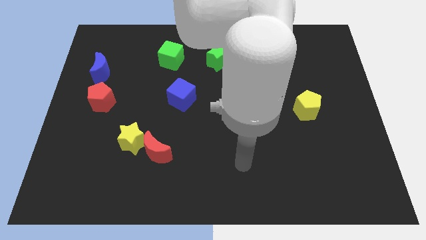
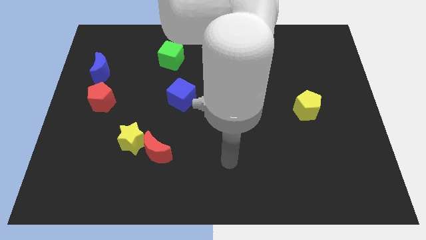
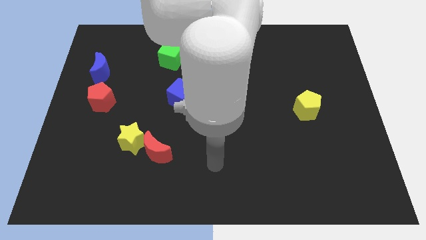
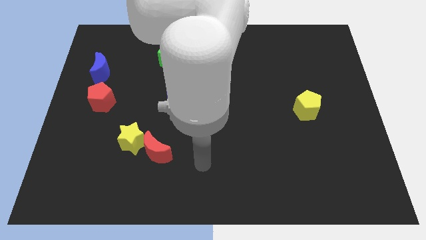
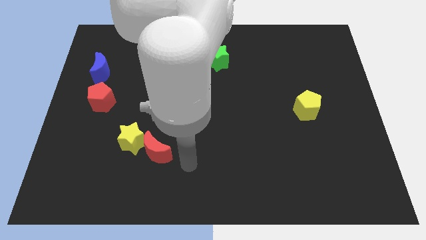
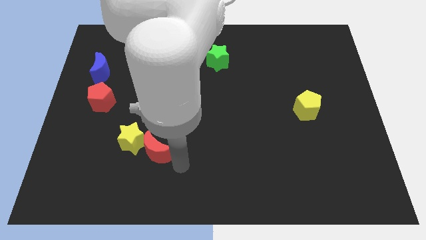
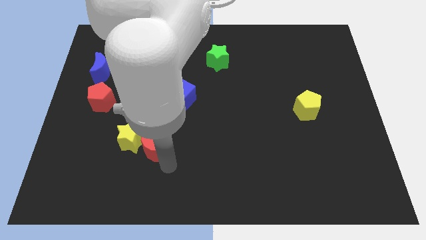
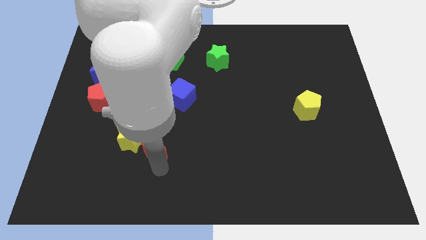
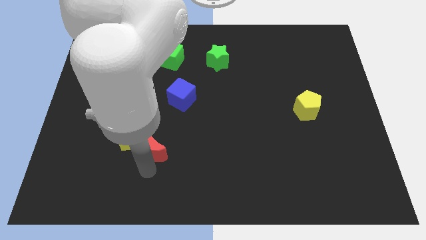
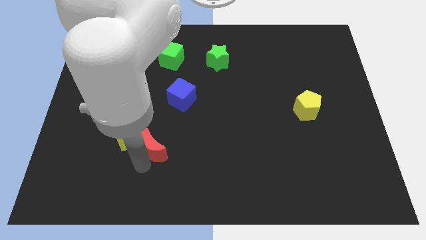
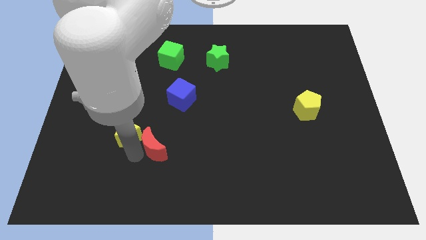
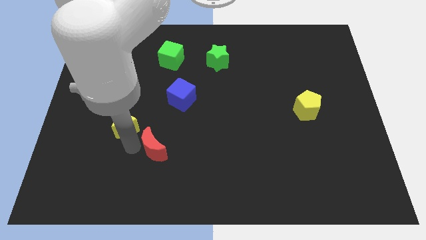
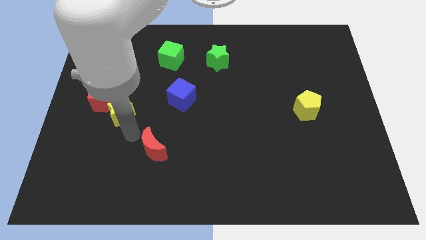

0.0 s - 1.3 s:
pull the red moon apart from the yellow star

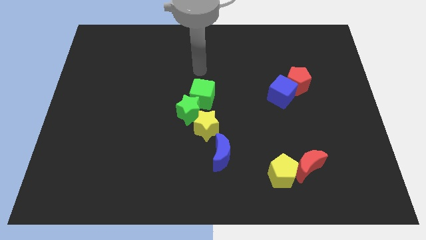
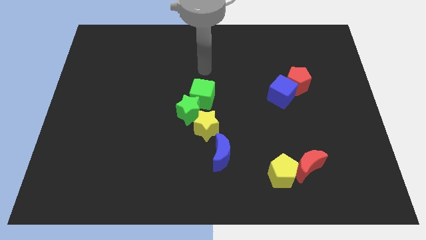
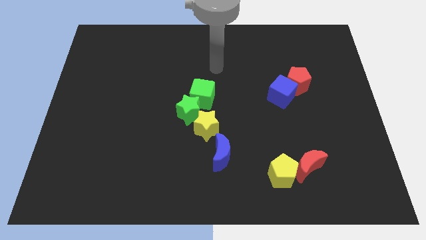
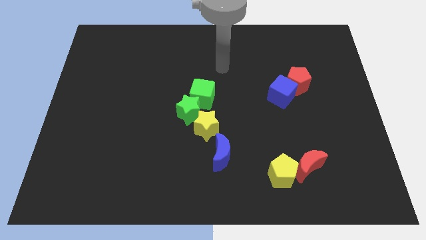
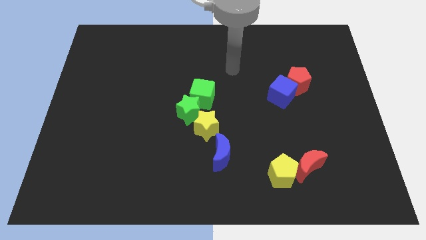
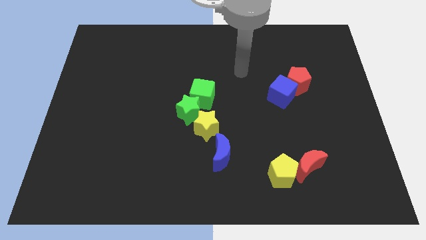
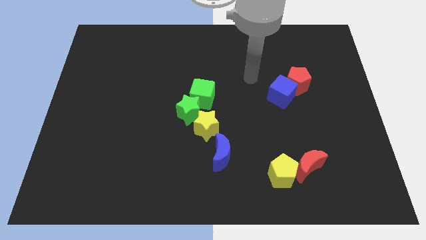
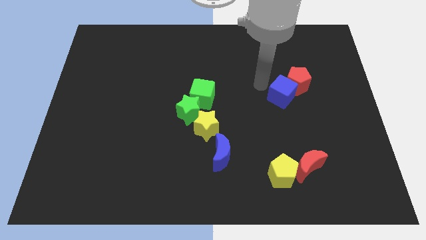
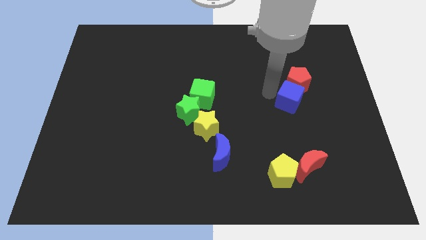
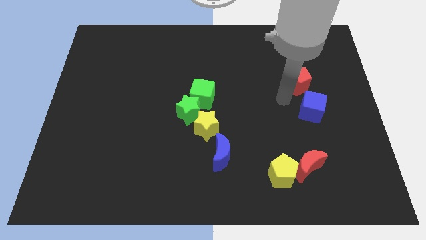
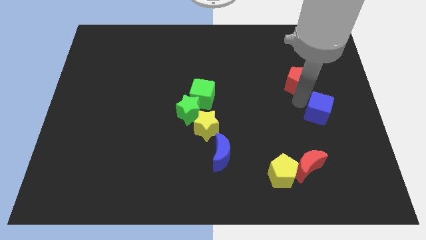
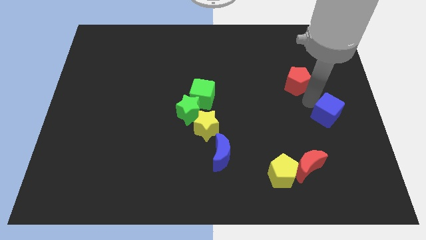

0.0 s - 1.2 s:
move the red pentagon away from the blue cube

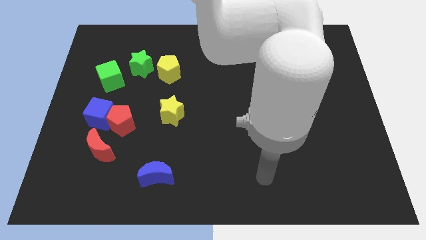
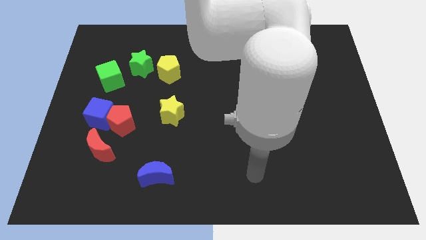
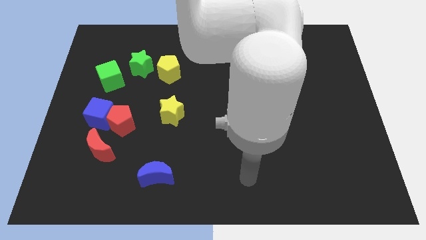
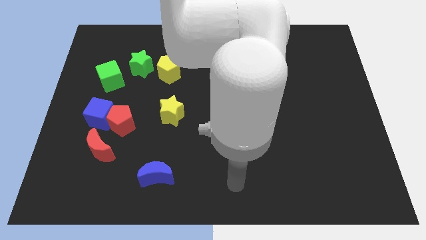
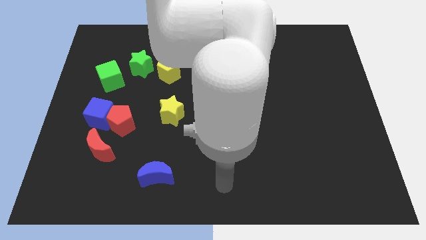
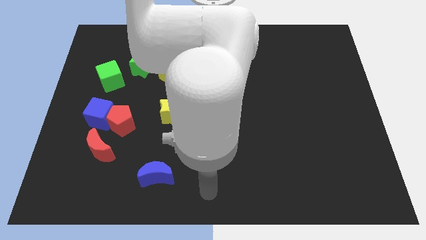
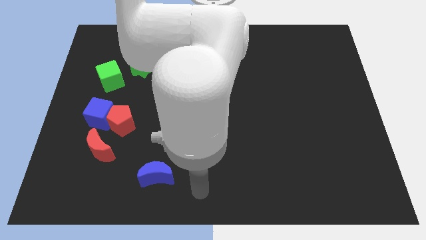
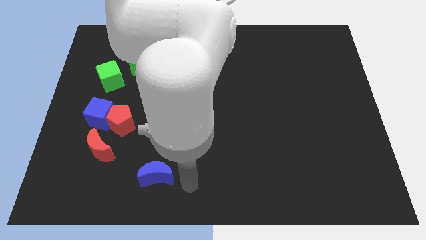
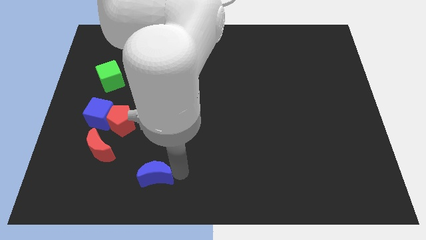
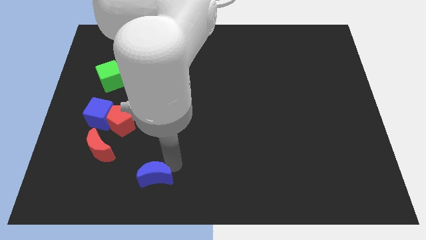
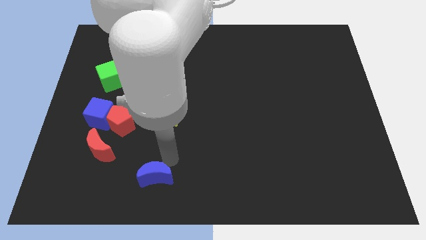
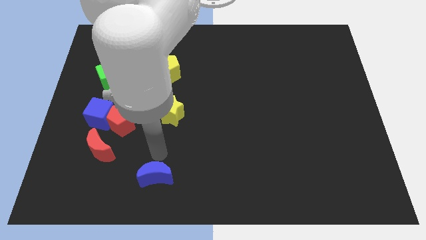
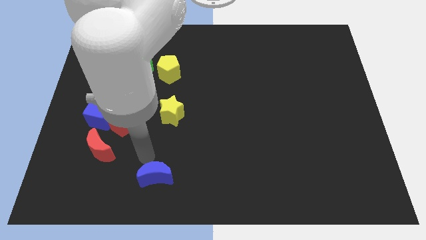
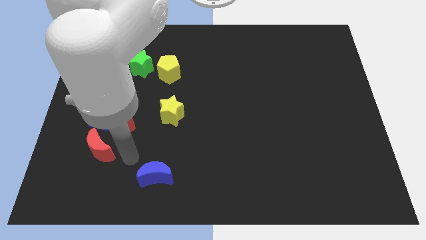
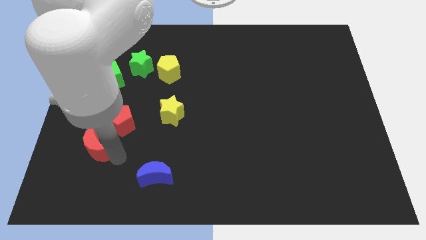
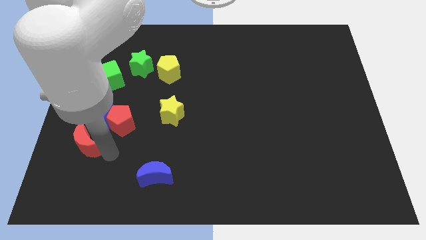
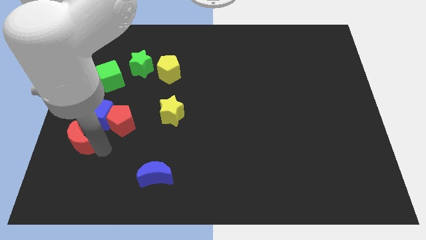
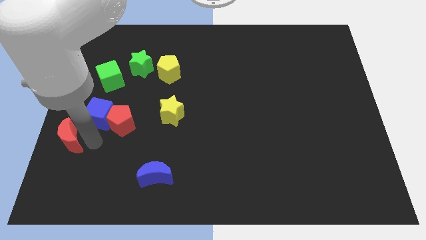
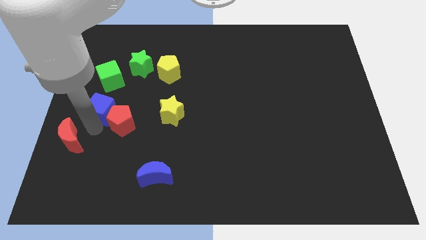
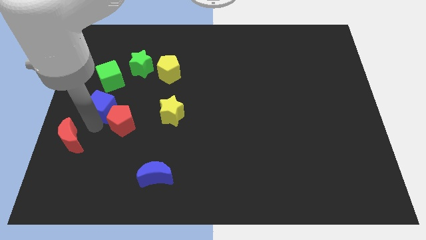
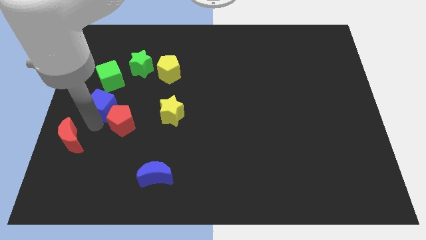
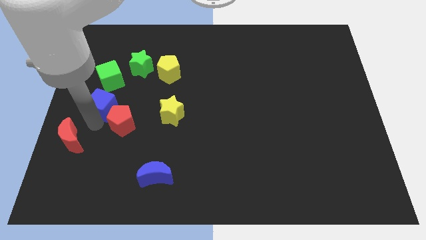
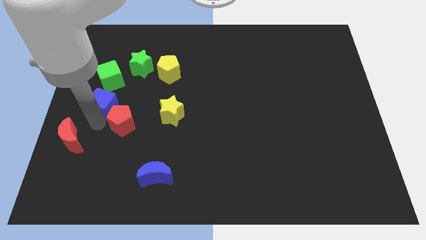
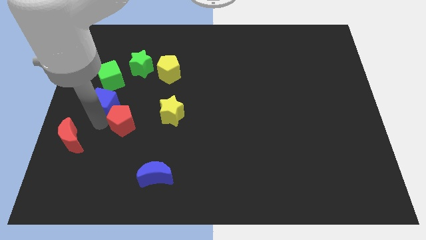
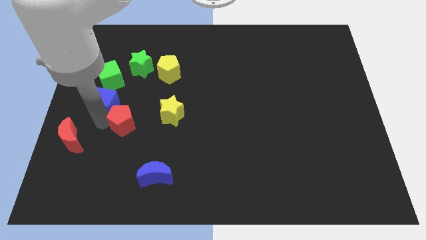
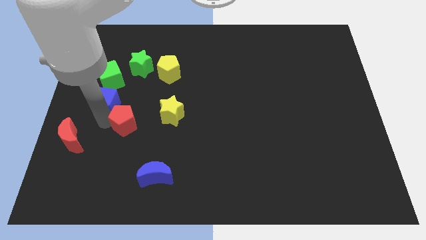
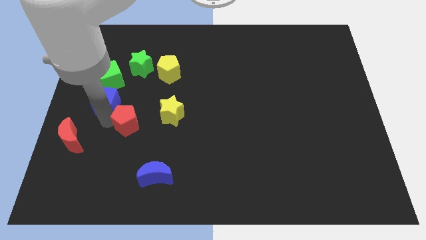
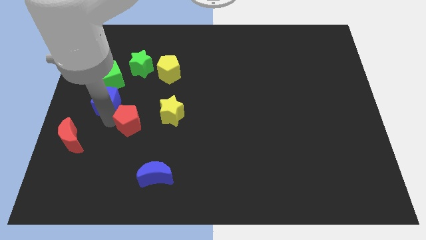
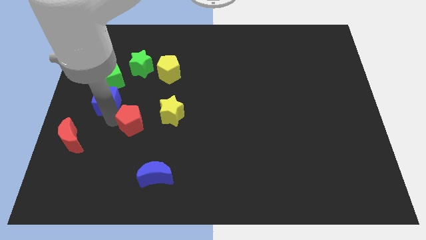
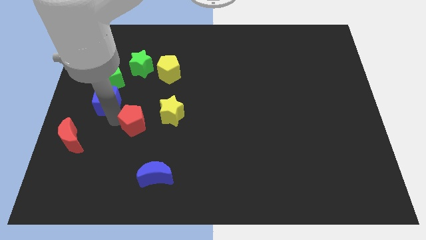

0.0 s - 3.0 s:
pull the red pentagon apart from the blue cube and red moon

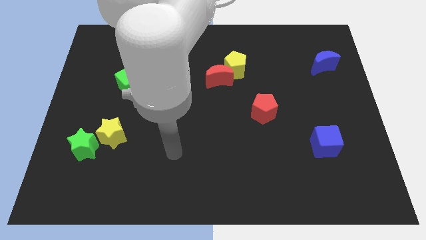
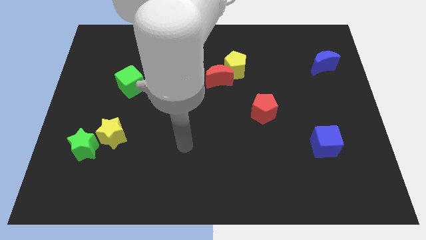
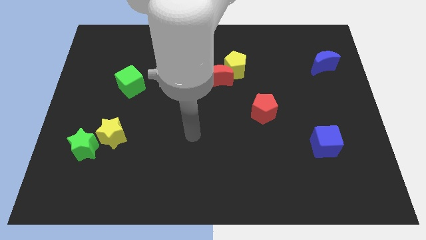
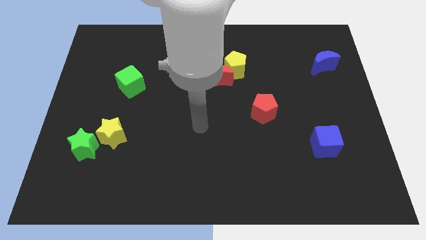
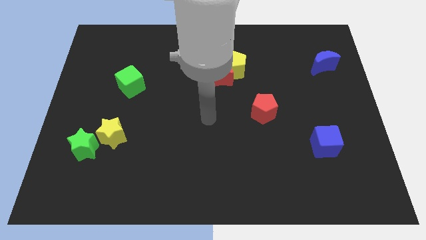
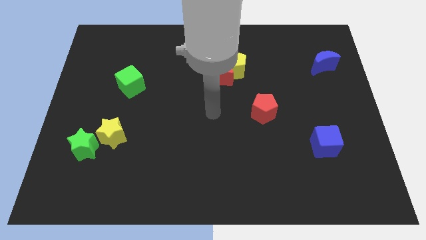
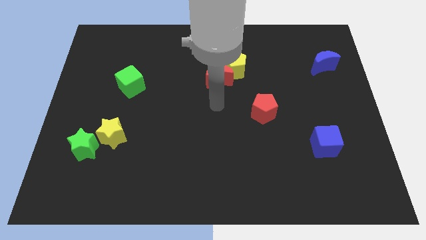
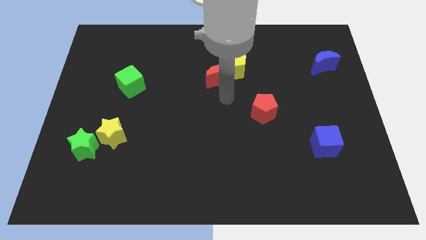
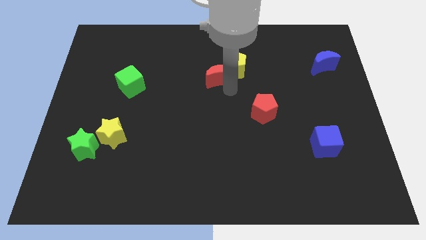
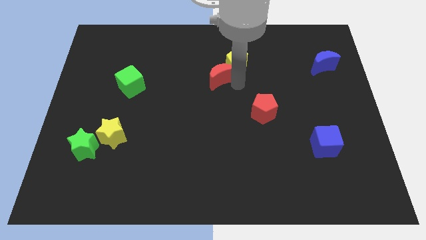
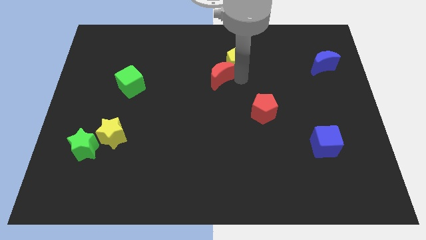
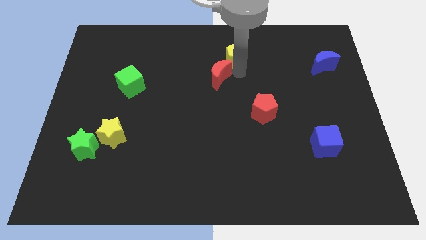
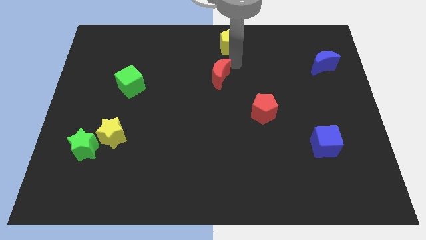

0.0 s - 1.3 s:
separate the red moon from the yellow pentagon

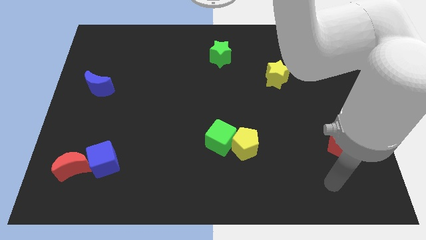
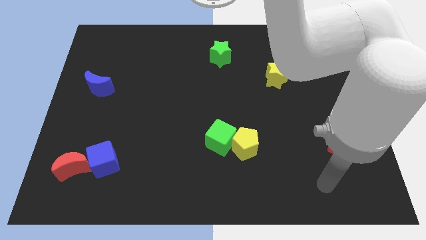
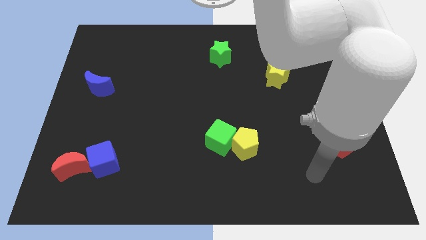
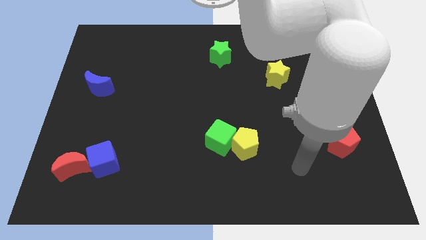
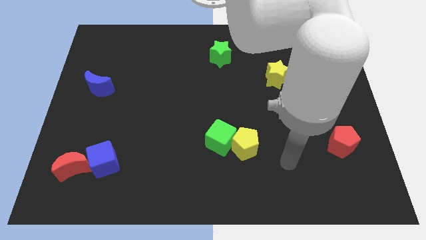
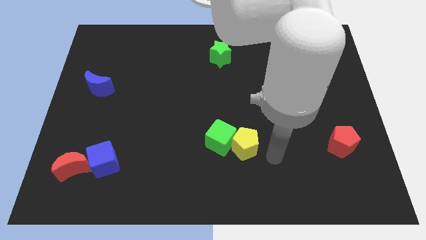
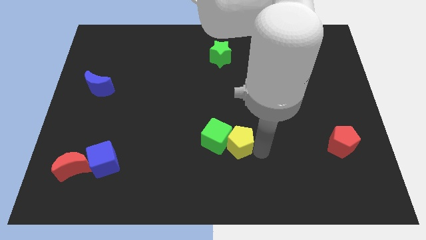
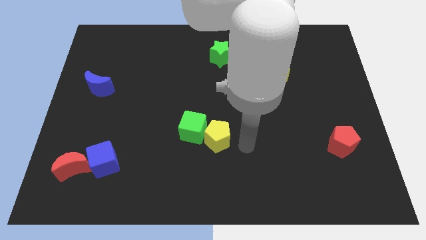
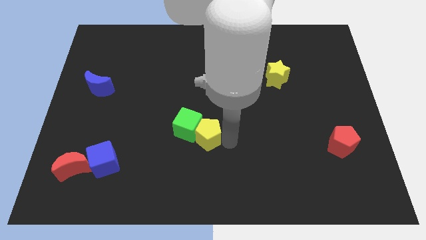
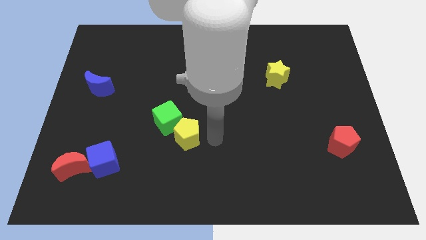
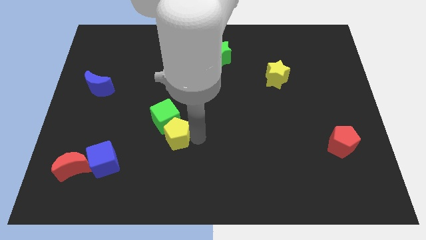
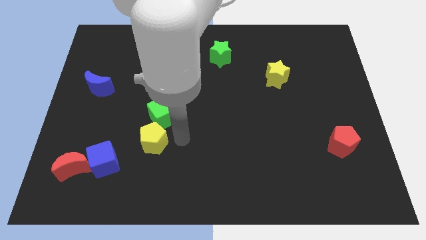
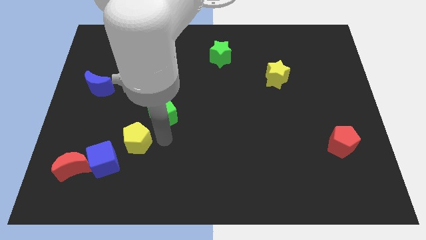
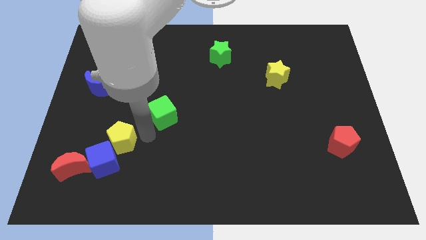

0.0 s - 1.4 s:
pull the green cube apart from the yellow pentagon

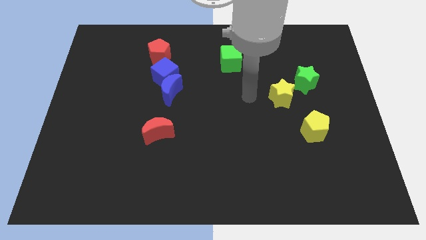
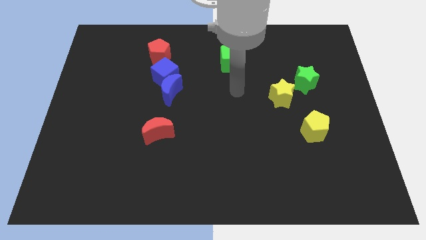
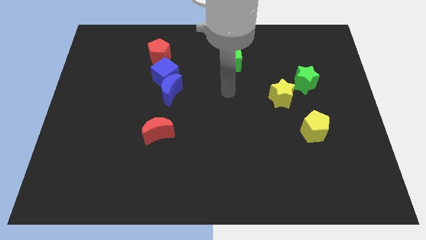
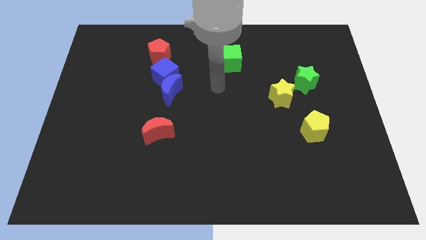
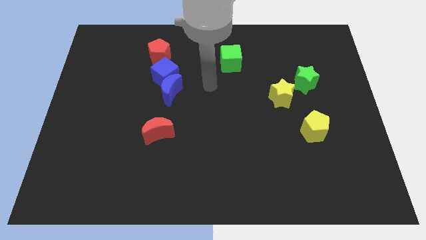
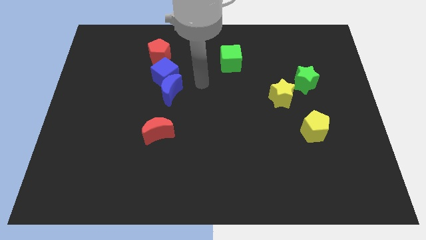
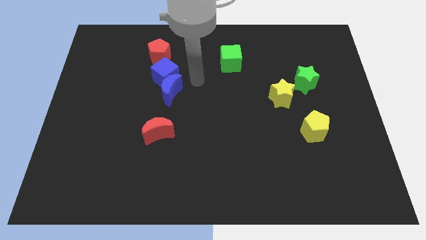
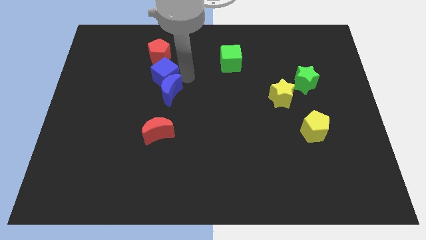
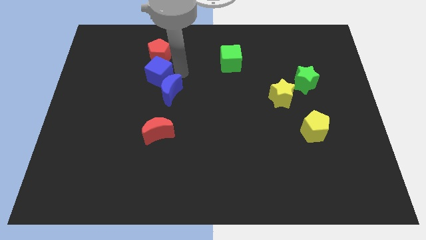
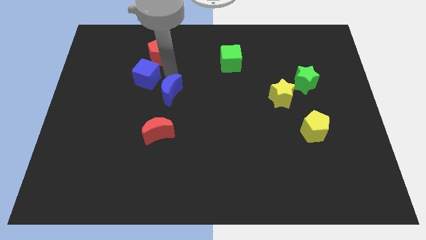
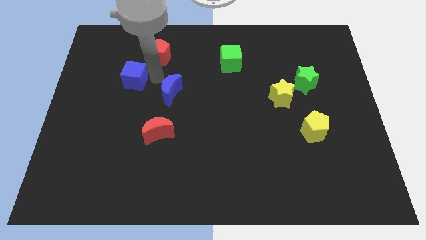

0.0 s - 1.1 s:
move the blue moon away from the blue cube
